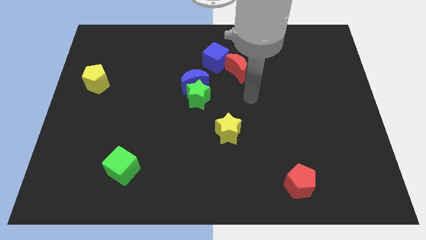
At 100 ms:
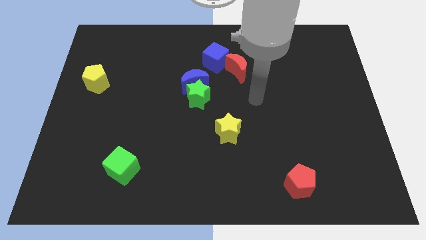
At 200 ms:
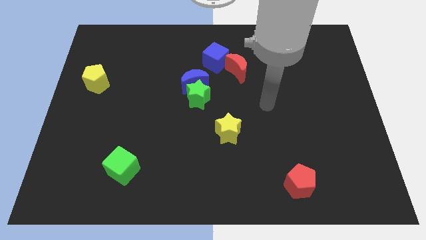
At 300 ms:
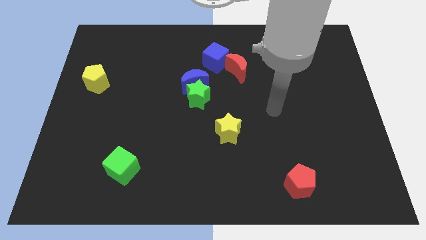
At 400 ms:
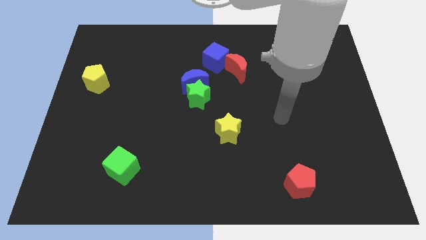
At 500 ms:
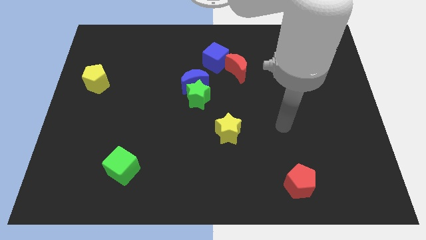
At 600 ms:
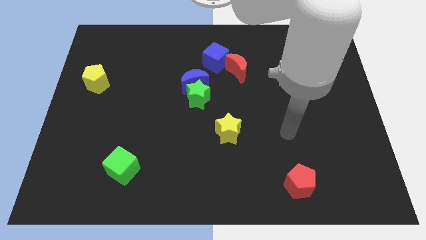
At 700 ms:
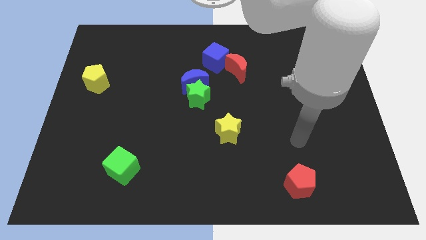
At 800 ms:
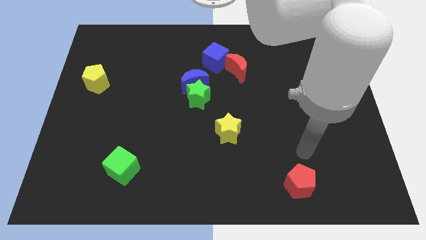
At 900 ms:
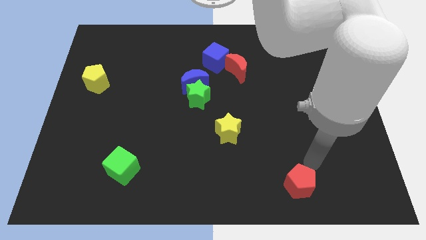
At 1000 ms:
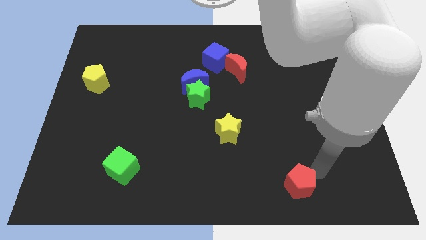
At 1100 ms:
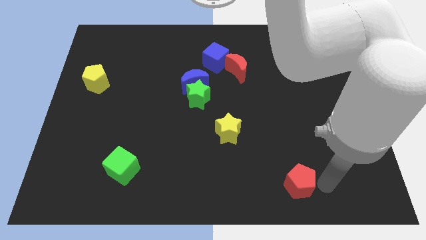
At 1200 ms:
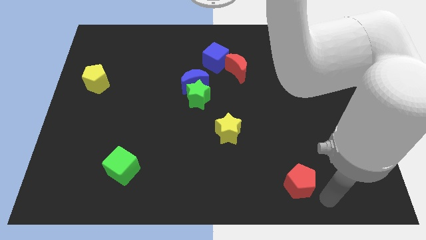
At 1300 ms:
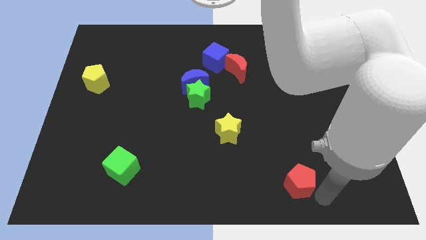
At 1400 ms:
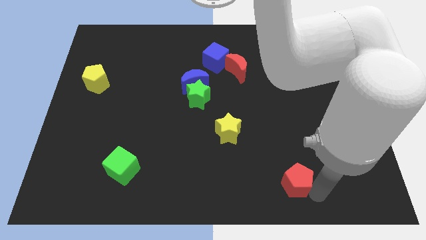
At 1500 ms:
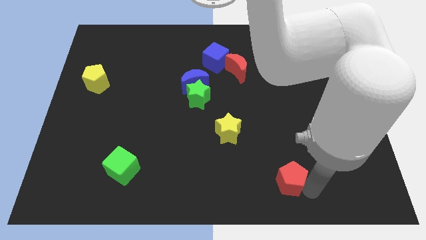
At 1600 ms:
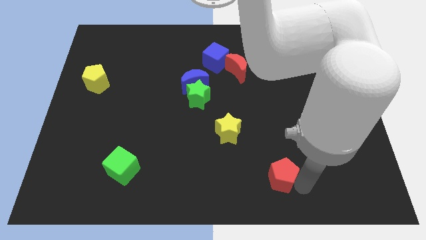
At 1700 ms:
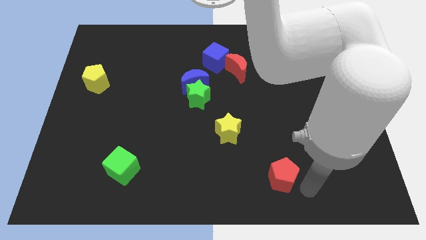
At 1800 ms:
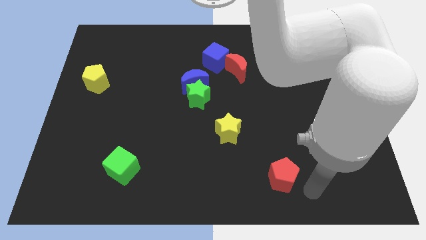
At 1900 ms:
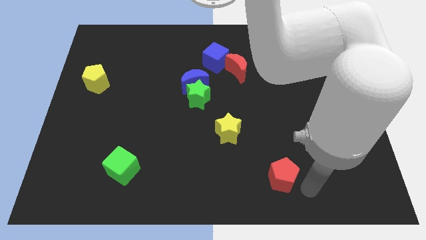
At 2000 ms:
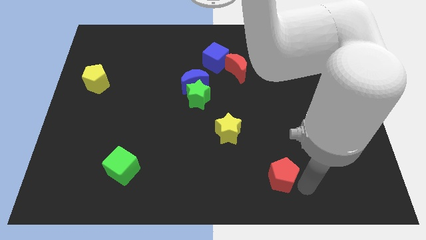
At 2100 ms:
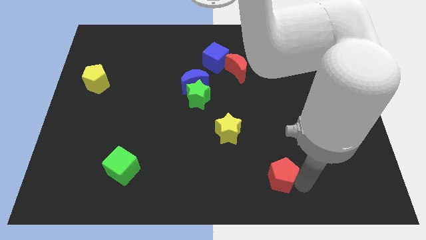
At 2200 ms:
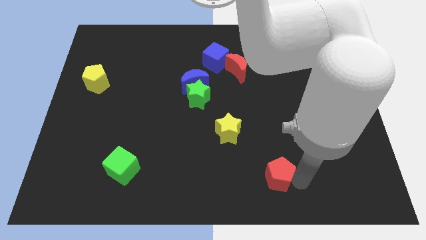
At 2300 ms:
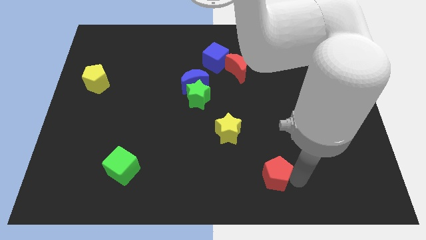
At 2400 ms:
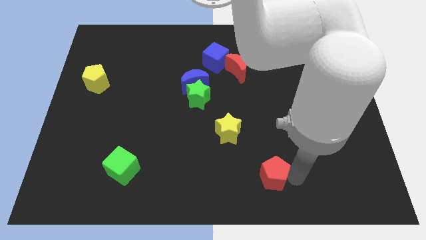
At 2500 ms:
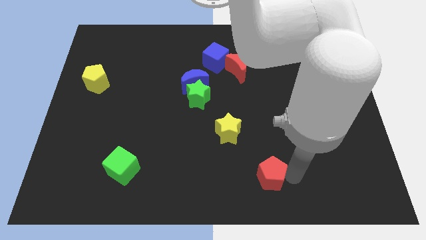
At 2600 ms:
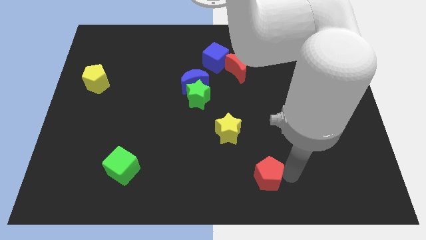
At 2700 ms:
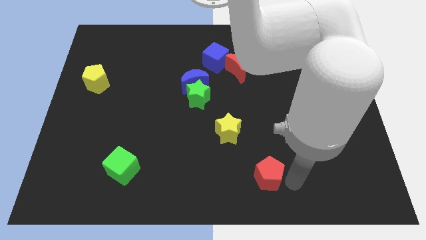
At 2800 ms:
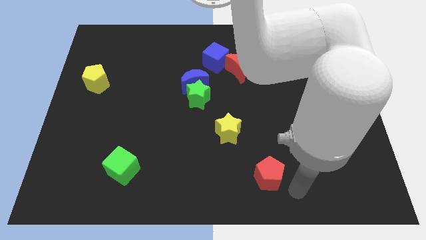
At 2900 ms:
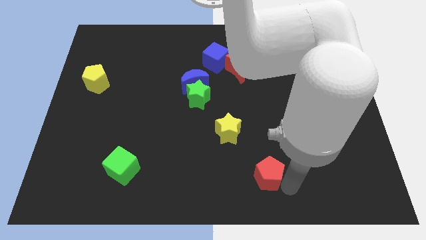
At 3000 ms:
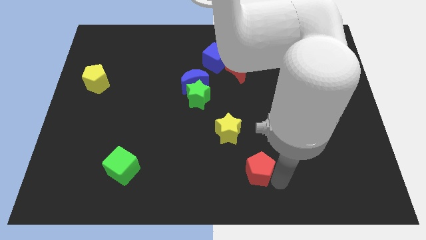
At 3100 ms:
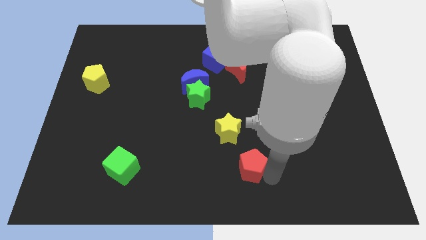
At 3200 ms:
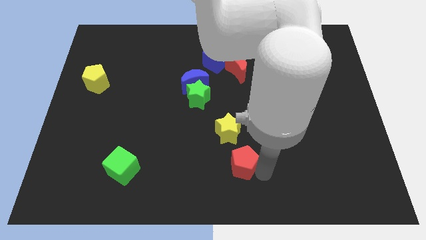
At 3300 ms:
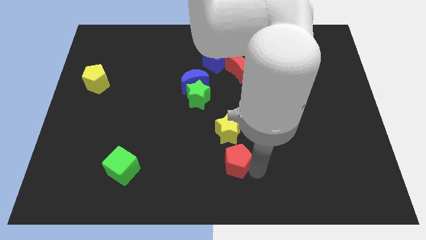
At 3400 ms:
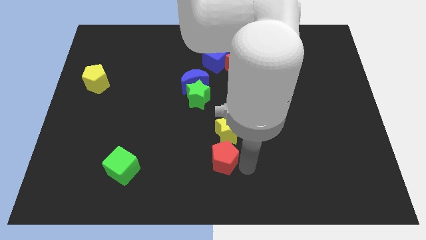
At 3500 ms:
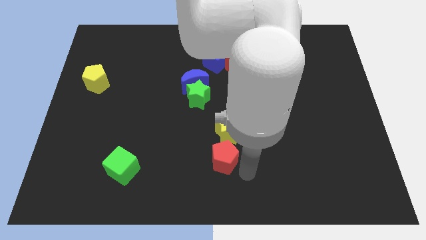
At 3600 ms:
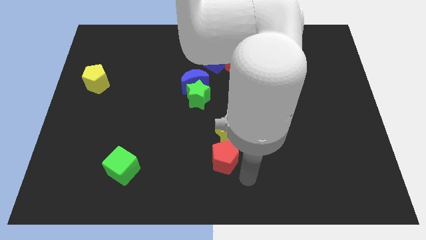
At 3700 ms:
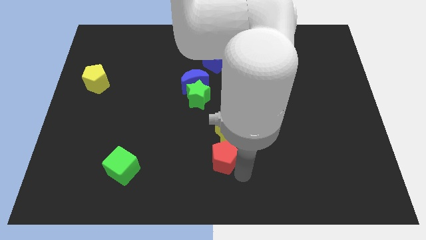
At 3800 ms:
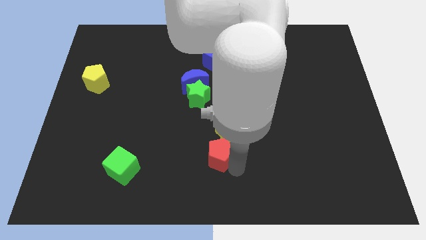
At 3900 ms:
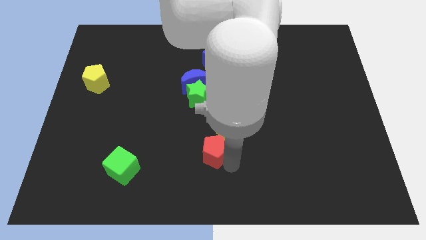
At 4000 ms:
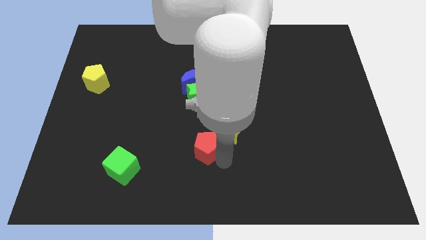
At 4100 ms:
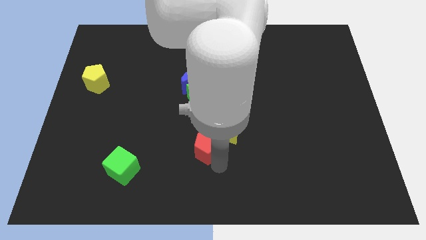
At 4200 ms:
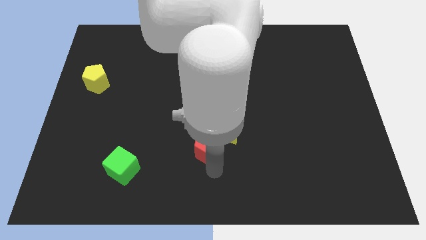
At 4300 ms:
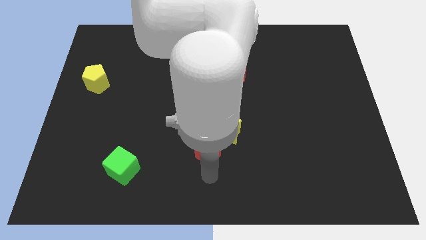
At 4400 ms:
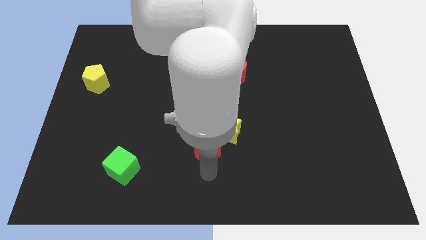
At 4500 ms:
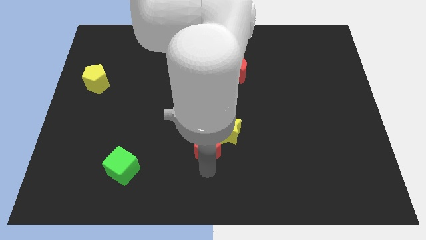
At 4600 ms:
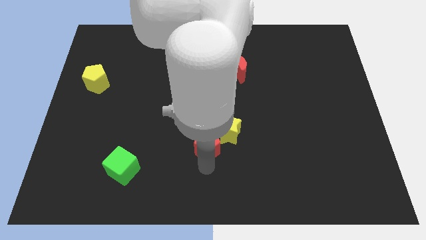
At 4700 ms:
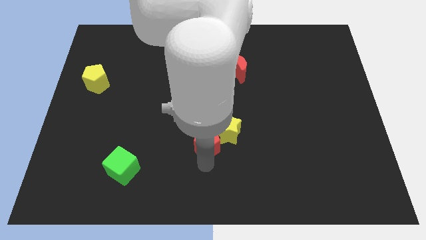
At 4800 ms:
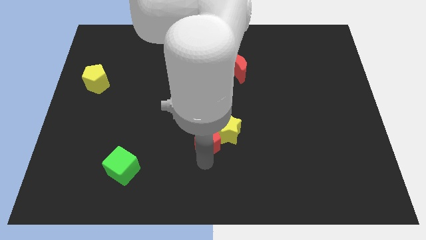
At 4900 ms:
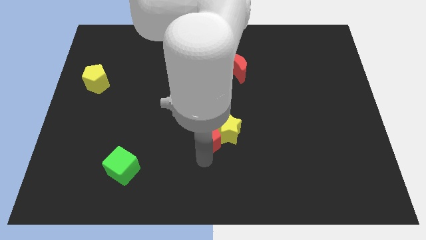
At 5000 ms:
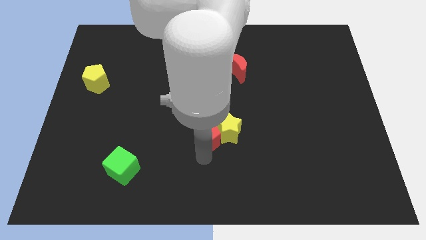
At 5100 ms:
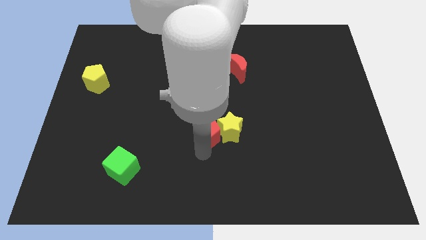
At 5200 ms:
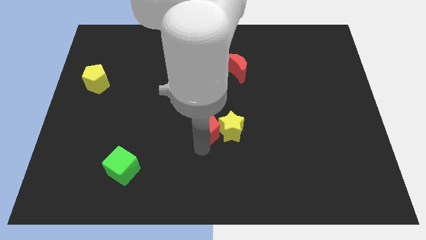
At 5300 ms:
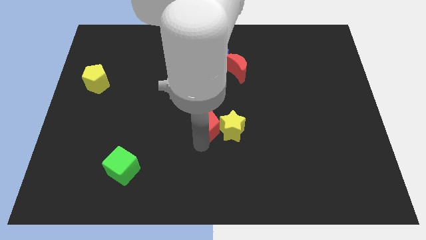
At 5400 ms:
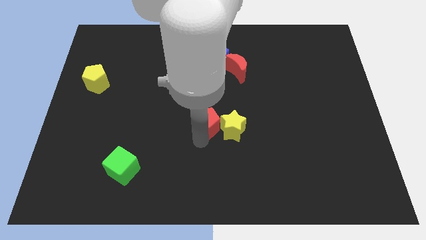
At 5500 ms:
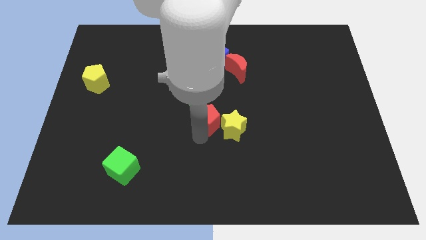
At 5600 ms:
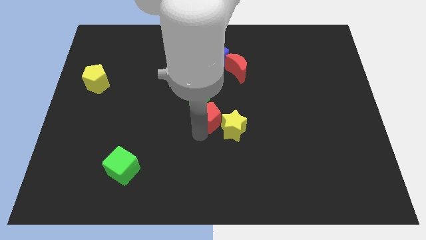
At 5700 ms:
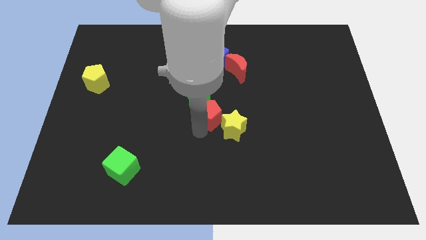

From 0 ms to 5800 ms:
push the red pentagon close to the green star
